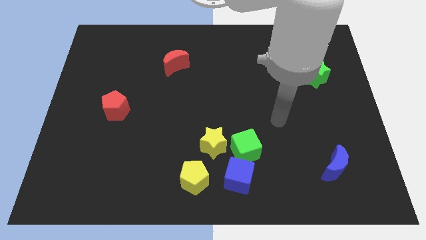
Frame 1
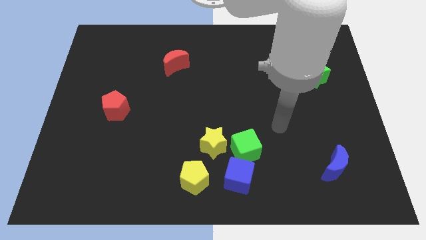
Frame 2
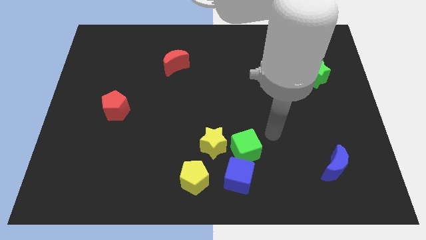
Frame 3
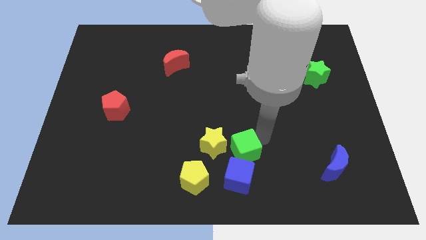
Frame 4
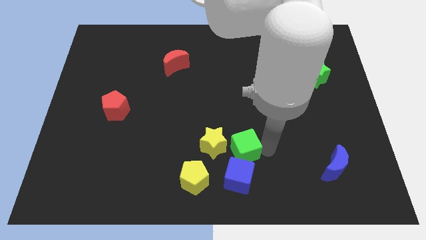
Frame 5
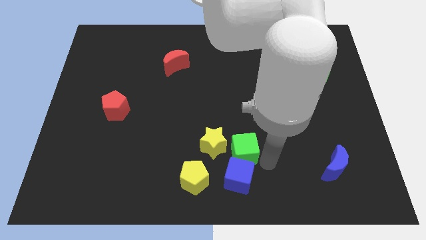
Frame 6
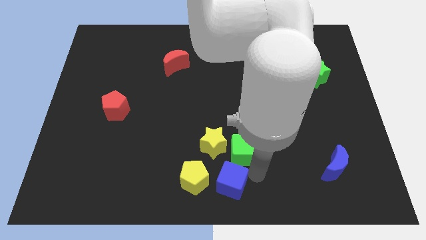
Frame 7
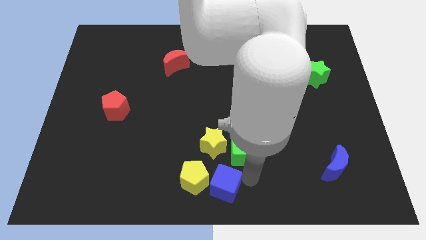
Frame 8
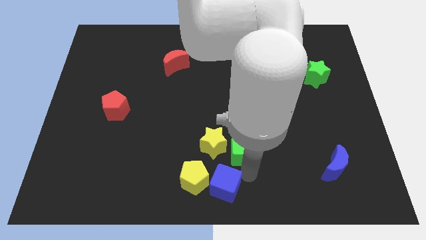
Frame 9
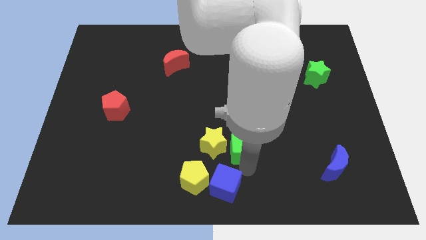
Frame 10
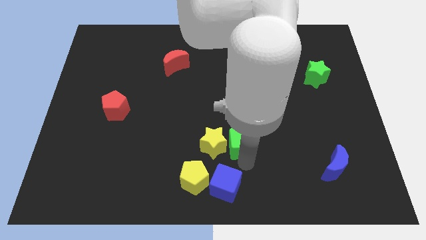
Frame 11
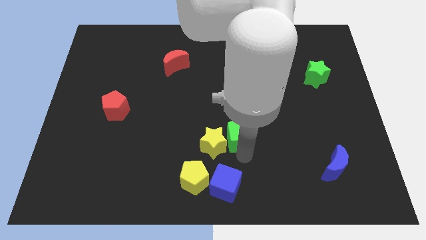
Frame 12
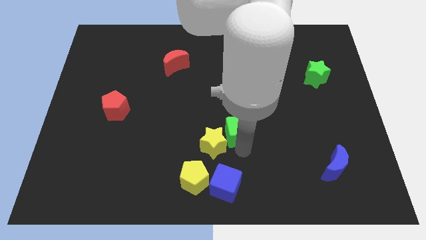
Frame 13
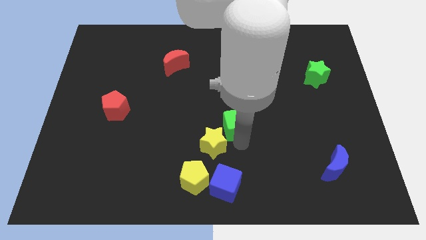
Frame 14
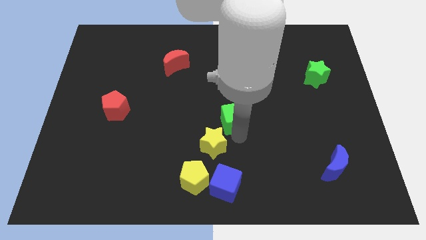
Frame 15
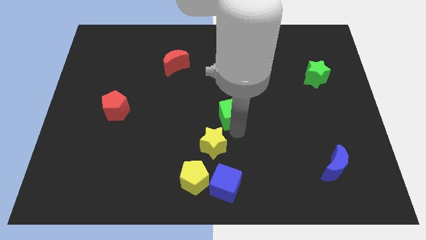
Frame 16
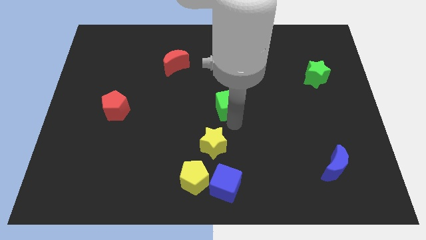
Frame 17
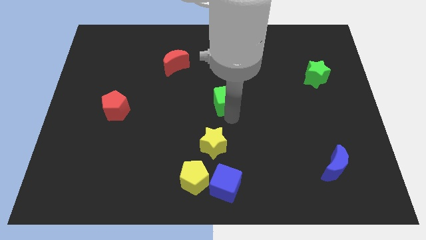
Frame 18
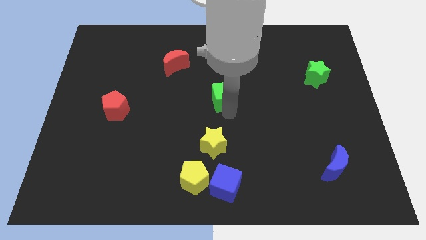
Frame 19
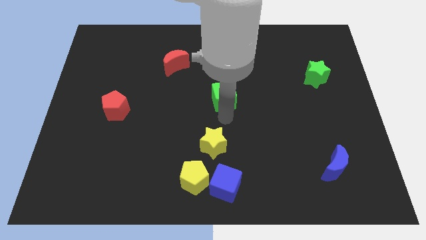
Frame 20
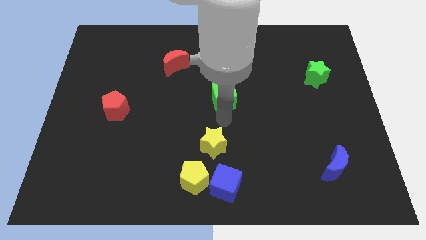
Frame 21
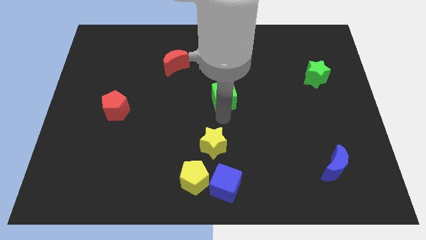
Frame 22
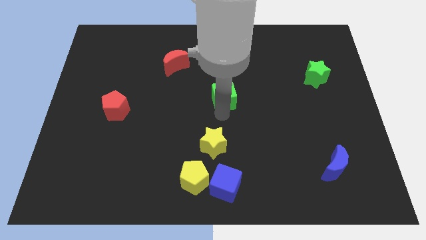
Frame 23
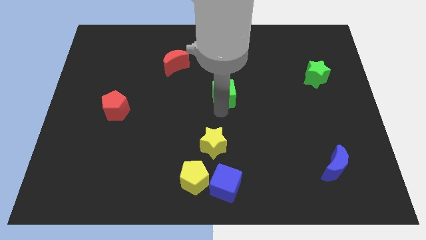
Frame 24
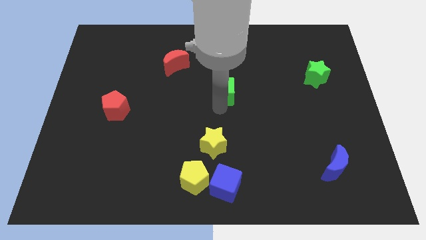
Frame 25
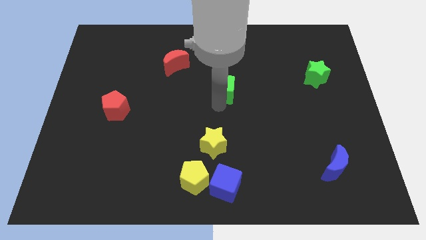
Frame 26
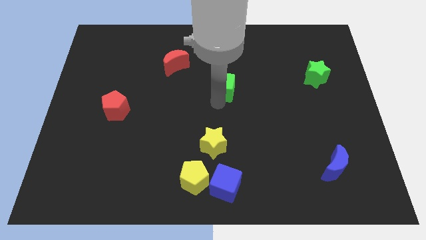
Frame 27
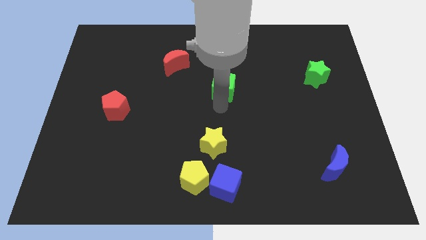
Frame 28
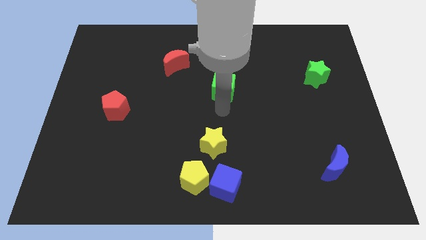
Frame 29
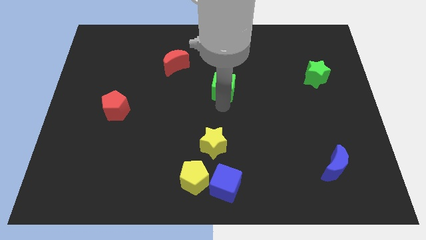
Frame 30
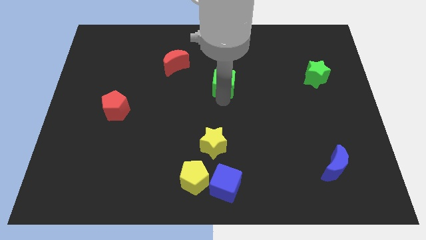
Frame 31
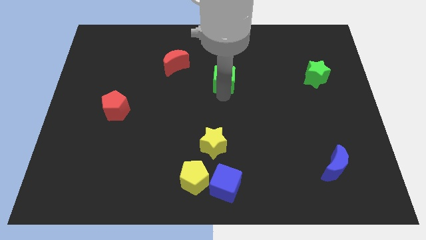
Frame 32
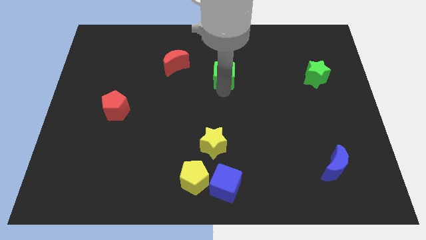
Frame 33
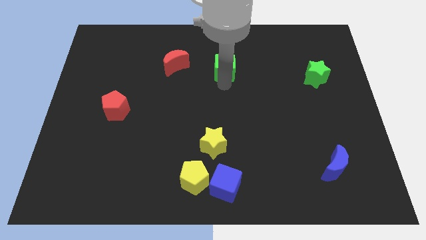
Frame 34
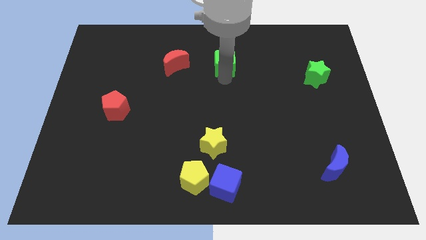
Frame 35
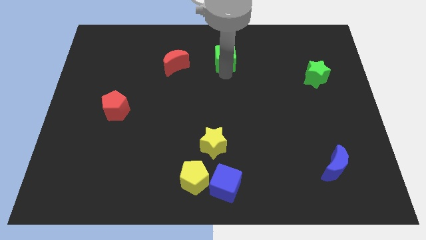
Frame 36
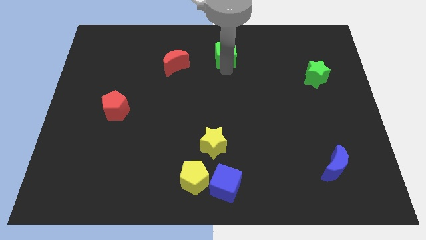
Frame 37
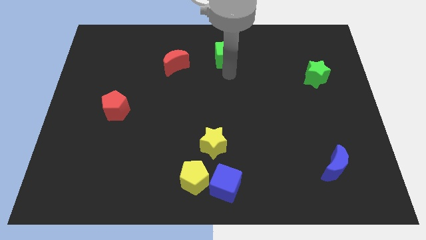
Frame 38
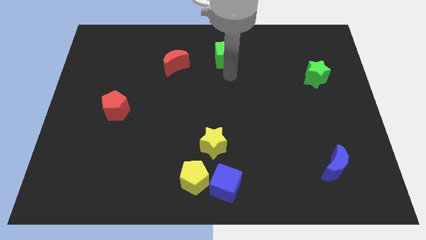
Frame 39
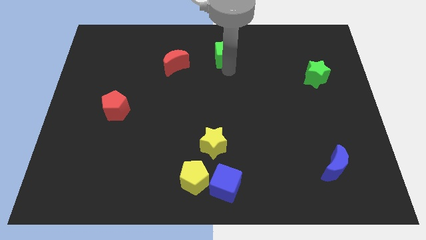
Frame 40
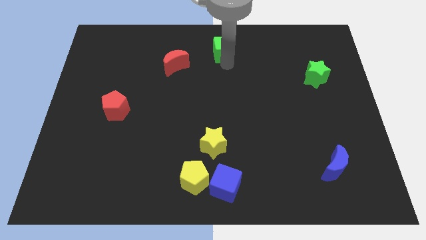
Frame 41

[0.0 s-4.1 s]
move the green cube to the top

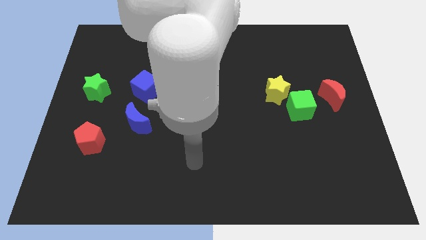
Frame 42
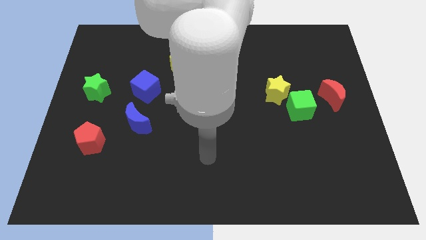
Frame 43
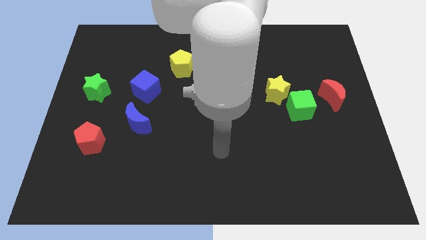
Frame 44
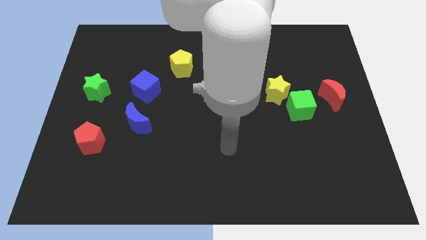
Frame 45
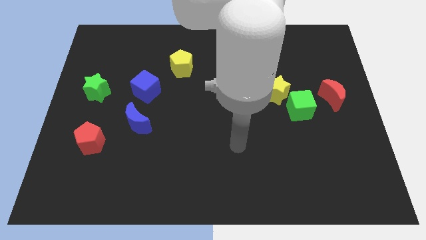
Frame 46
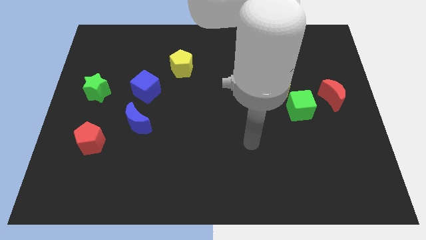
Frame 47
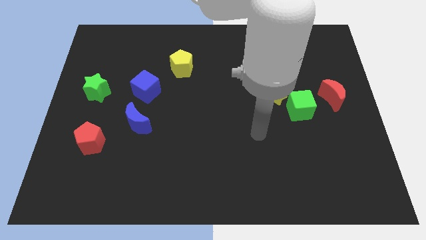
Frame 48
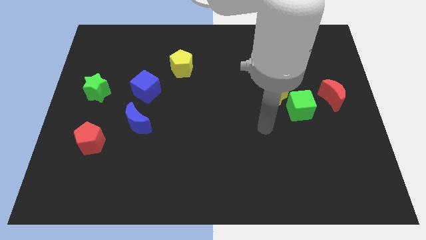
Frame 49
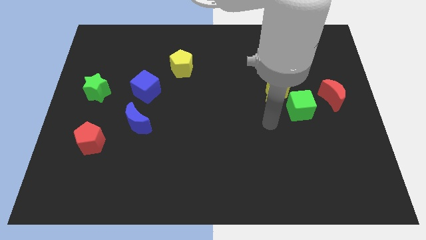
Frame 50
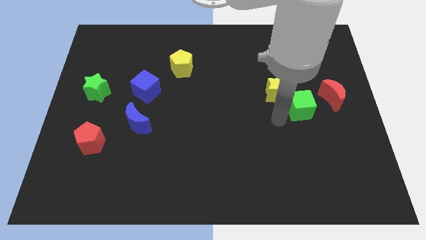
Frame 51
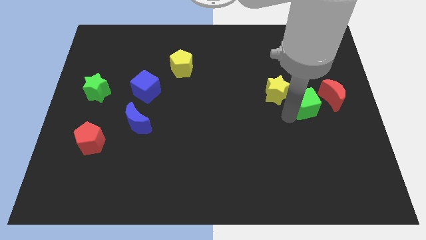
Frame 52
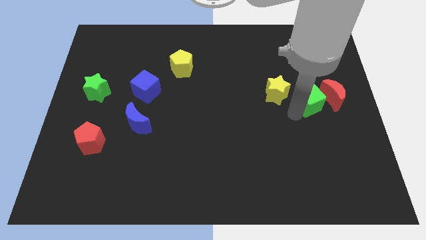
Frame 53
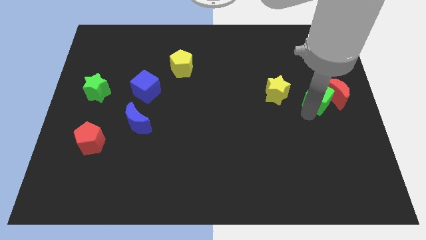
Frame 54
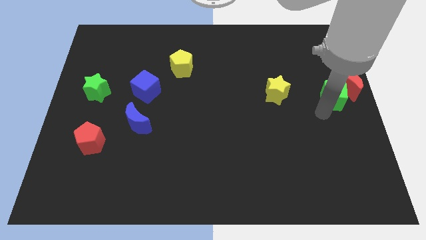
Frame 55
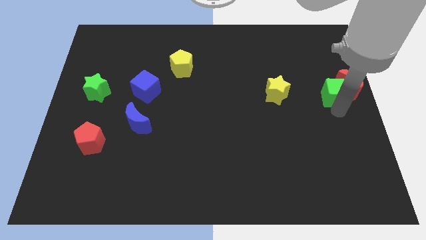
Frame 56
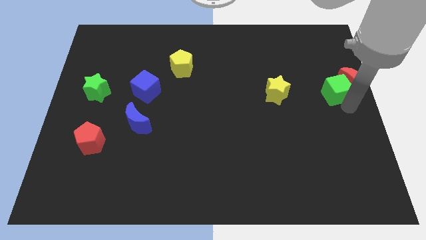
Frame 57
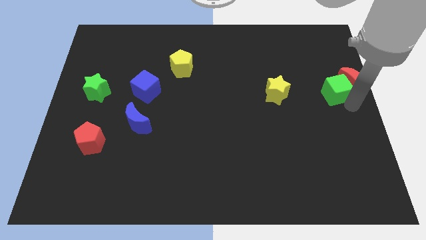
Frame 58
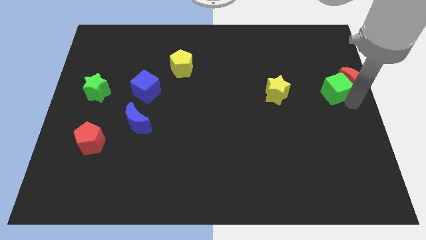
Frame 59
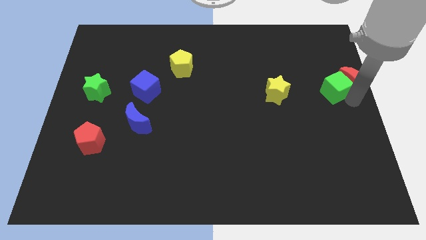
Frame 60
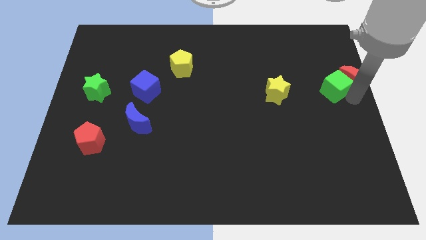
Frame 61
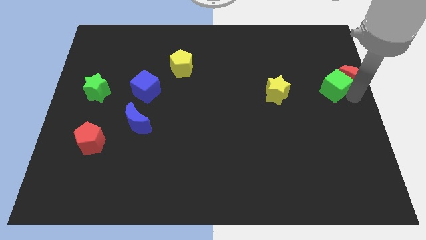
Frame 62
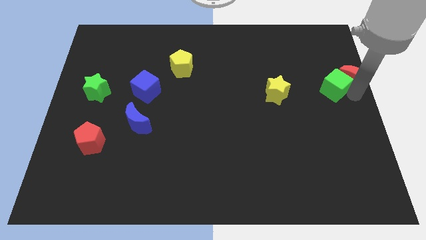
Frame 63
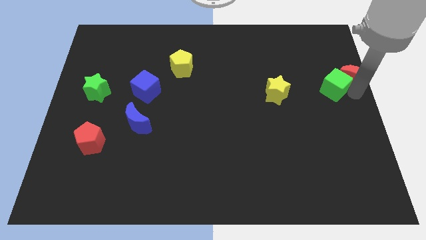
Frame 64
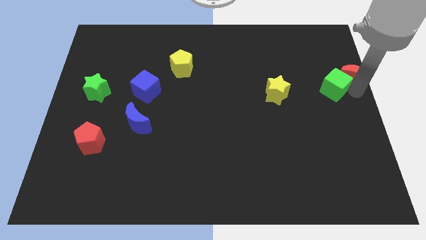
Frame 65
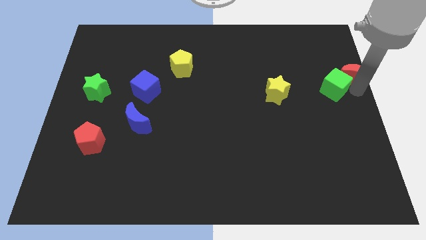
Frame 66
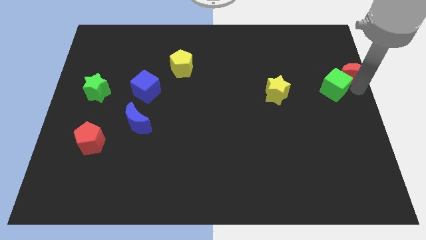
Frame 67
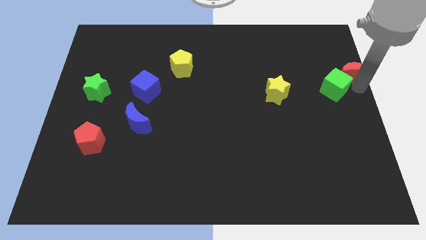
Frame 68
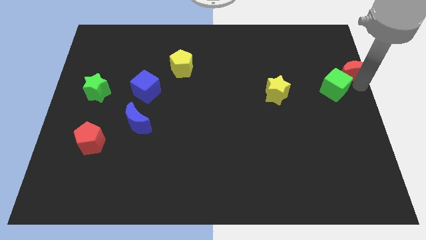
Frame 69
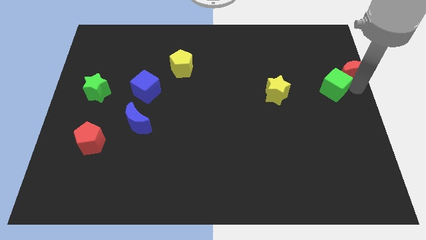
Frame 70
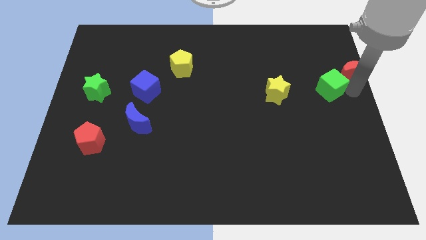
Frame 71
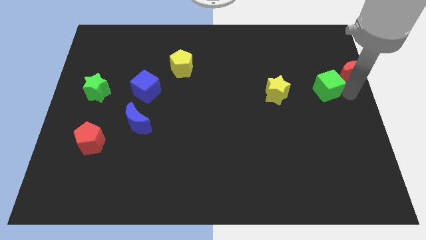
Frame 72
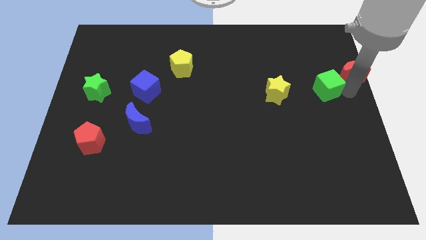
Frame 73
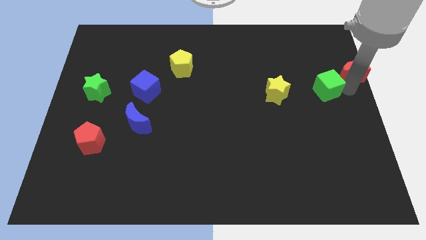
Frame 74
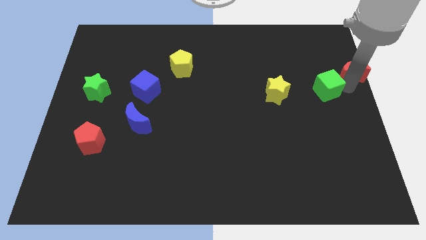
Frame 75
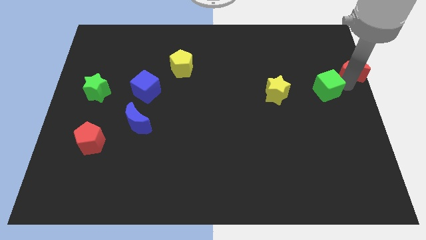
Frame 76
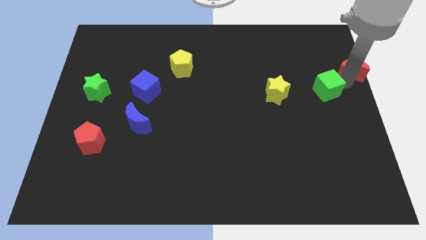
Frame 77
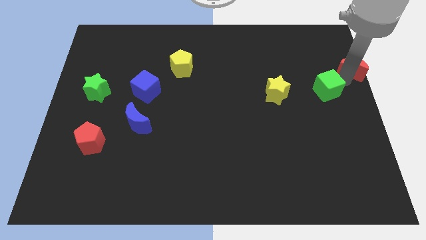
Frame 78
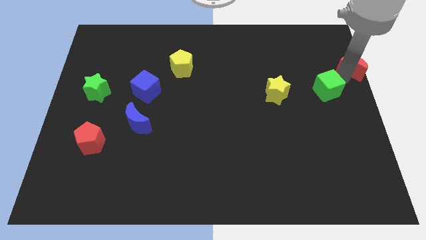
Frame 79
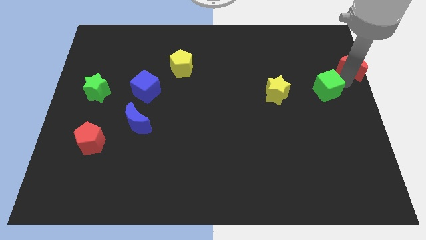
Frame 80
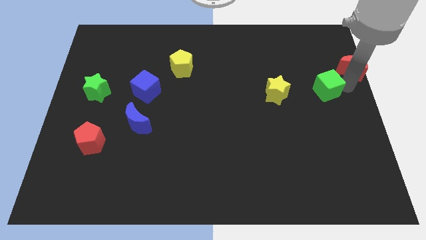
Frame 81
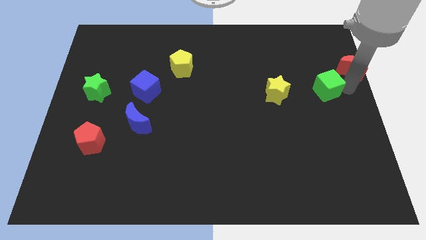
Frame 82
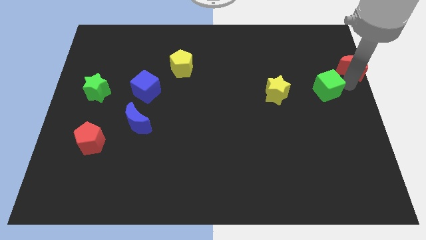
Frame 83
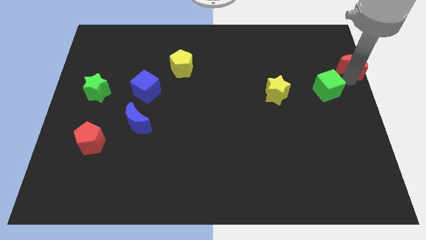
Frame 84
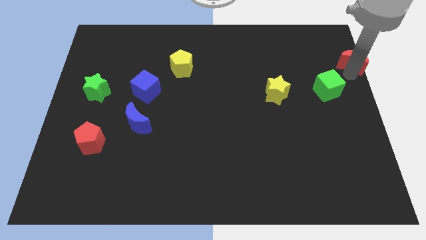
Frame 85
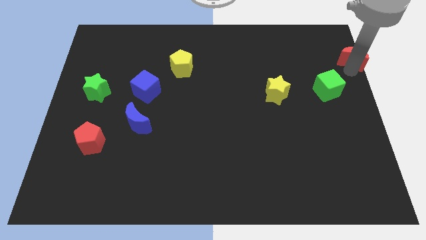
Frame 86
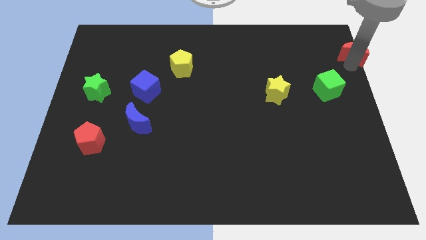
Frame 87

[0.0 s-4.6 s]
move the red moon to the top right
